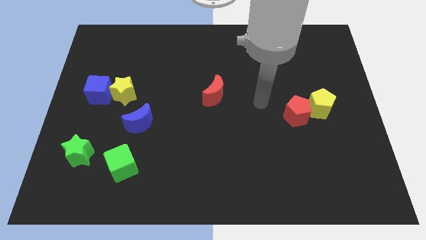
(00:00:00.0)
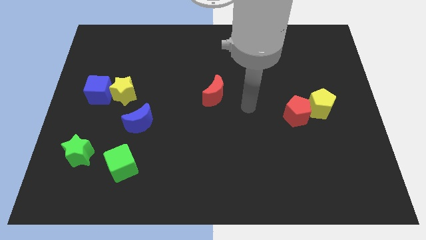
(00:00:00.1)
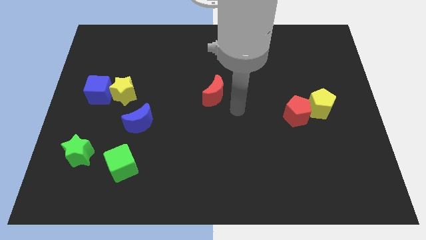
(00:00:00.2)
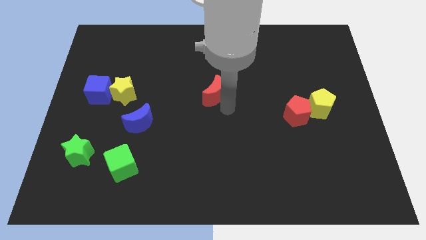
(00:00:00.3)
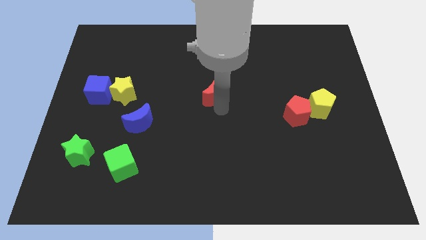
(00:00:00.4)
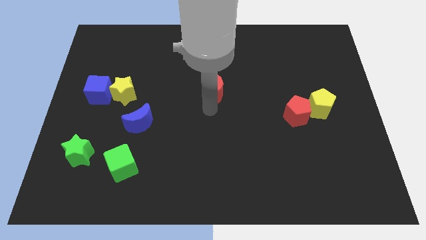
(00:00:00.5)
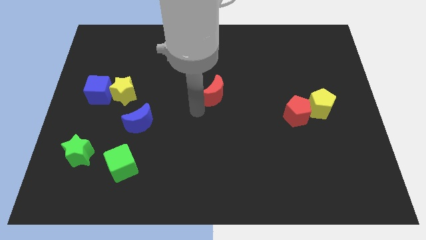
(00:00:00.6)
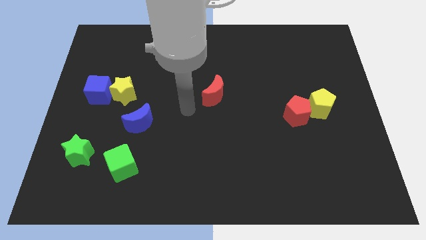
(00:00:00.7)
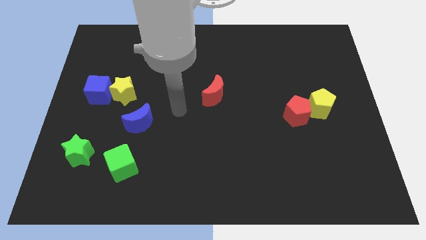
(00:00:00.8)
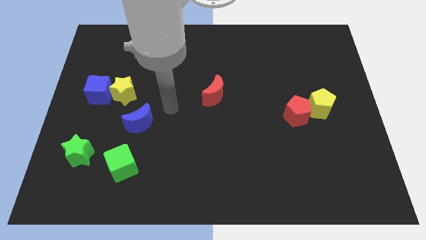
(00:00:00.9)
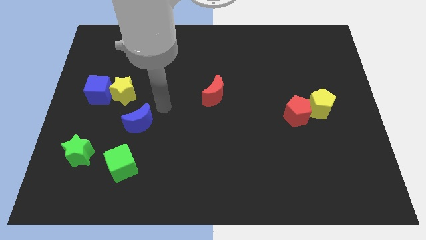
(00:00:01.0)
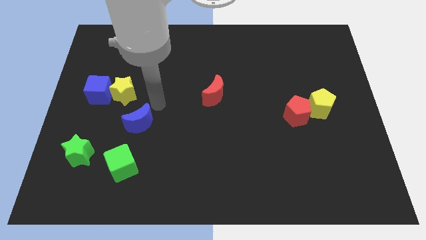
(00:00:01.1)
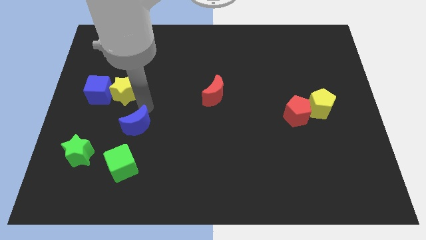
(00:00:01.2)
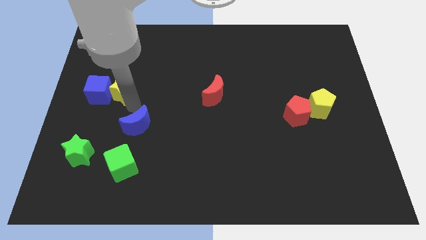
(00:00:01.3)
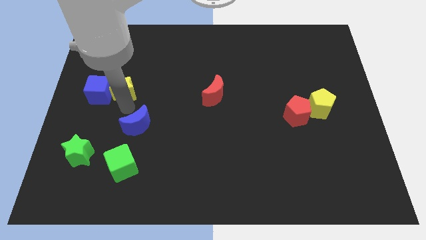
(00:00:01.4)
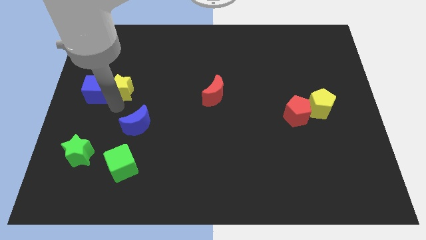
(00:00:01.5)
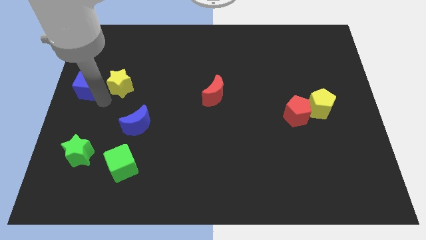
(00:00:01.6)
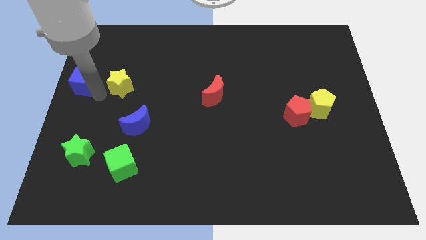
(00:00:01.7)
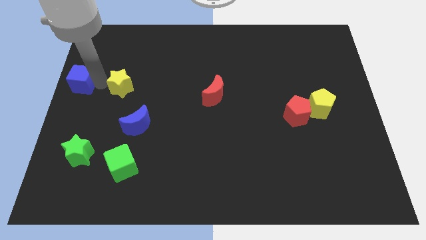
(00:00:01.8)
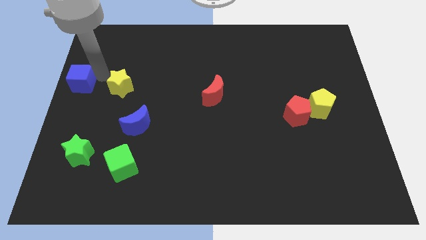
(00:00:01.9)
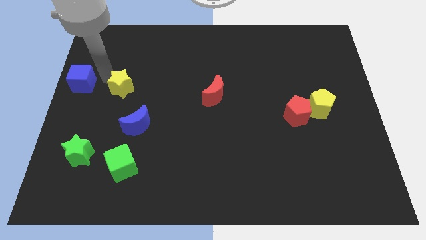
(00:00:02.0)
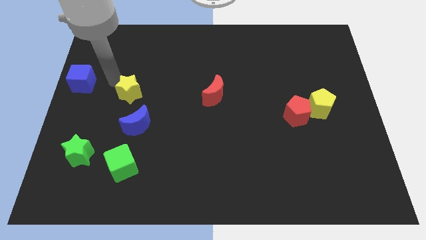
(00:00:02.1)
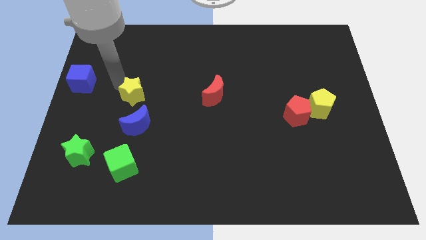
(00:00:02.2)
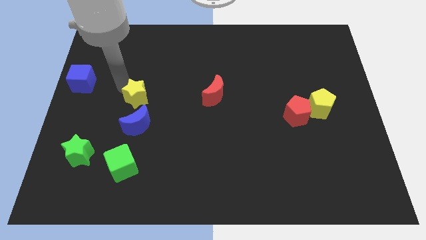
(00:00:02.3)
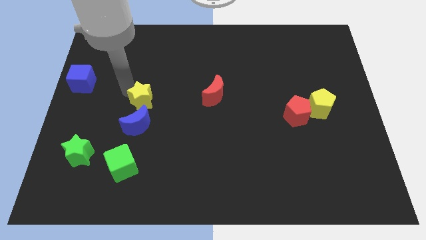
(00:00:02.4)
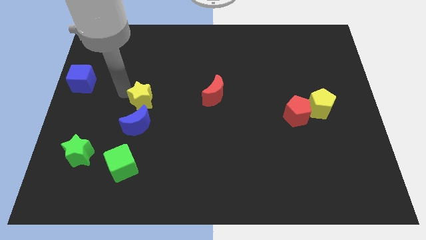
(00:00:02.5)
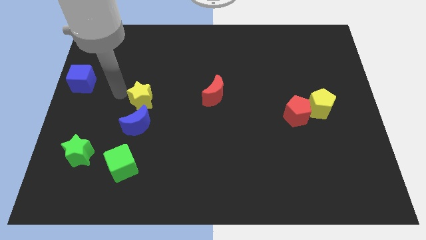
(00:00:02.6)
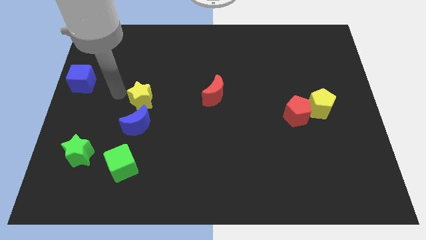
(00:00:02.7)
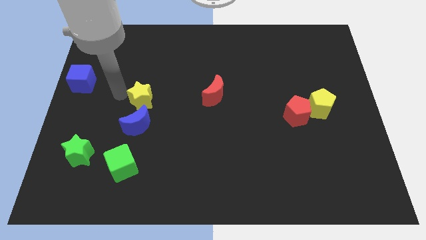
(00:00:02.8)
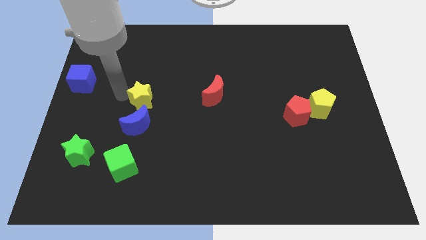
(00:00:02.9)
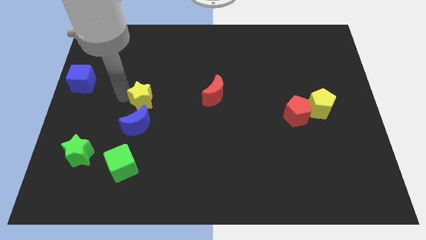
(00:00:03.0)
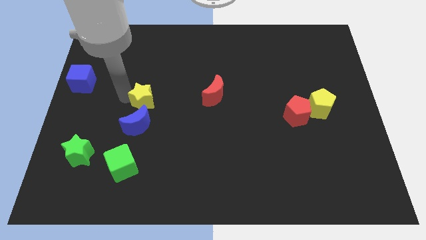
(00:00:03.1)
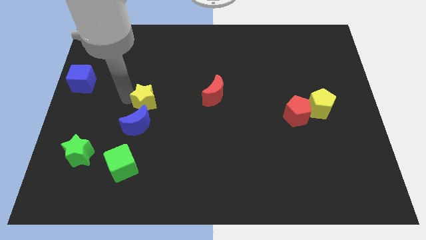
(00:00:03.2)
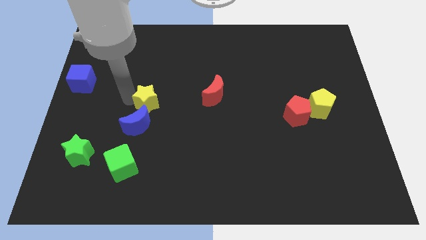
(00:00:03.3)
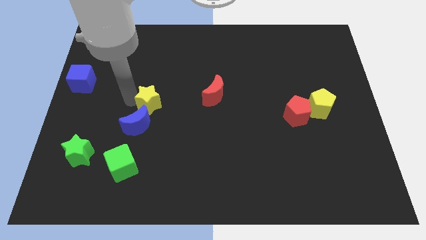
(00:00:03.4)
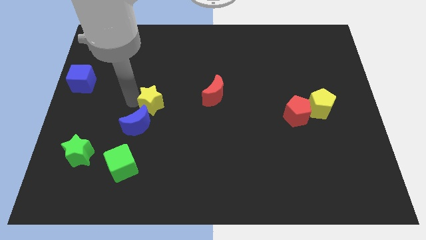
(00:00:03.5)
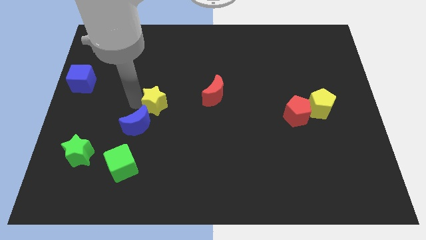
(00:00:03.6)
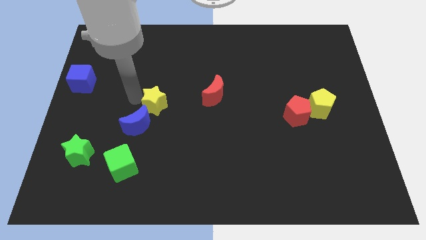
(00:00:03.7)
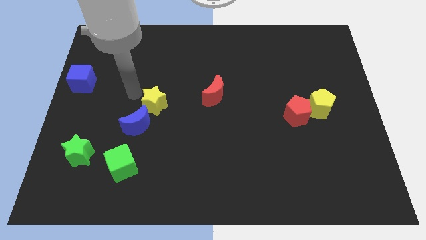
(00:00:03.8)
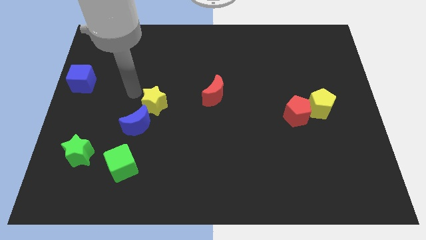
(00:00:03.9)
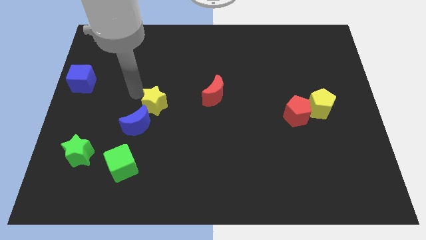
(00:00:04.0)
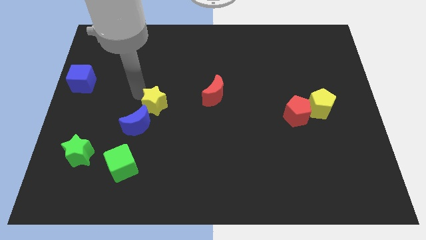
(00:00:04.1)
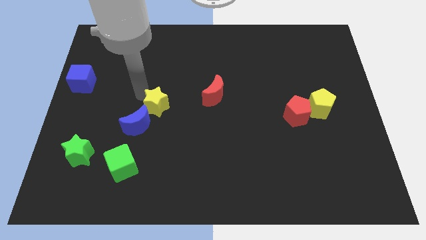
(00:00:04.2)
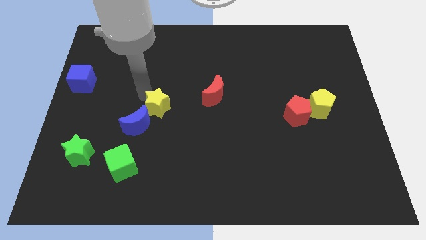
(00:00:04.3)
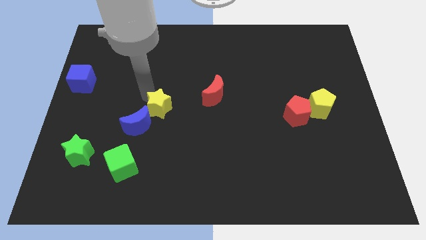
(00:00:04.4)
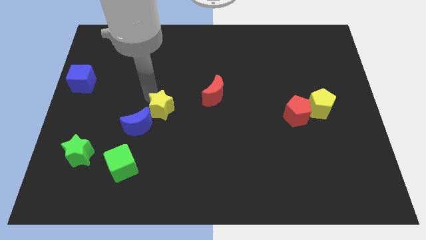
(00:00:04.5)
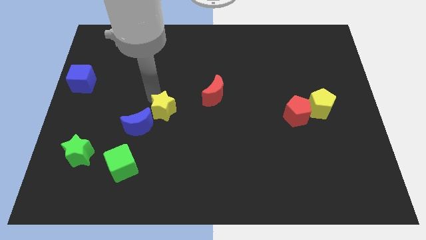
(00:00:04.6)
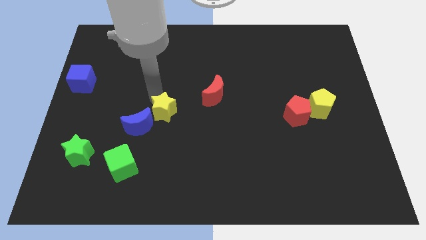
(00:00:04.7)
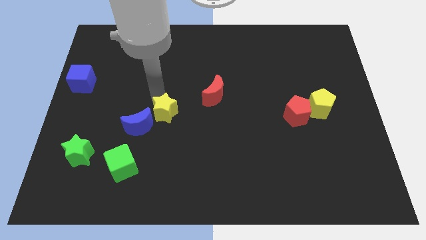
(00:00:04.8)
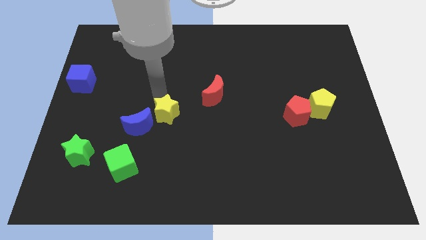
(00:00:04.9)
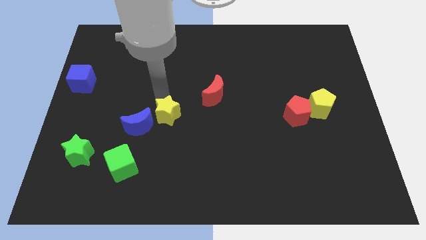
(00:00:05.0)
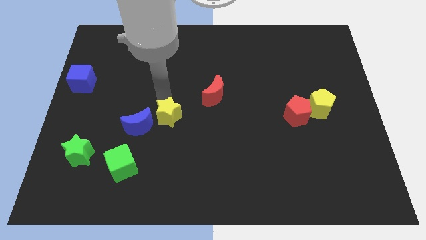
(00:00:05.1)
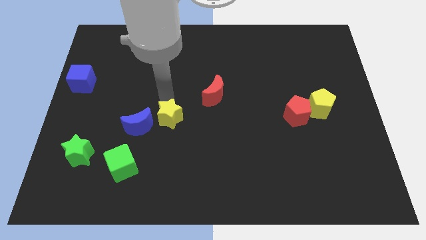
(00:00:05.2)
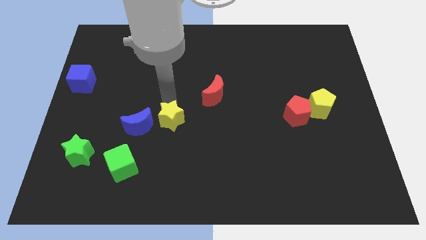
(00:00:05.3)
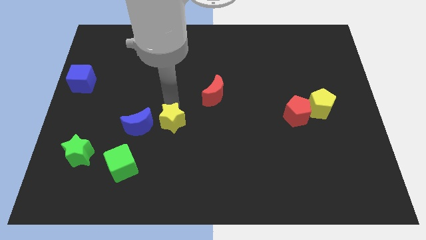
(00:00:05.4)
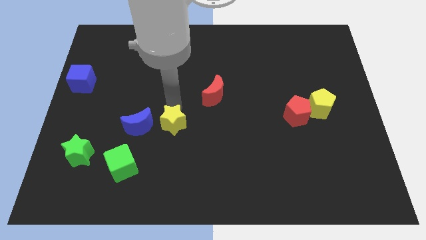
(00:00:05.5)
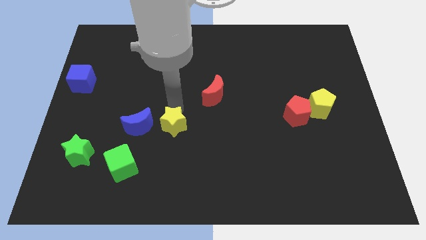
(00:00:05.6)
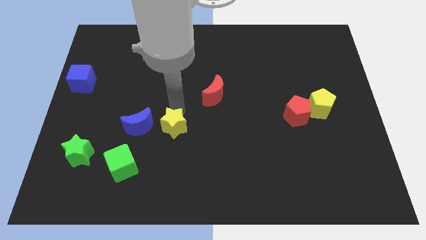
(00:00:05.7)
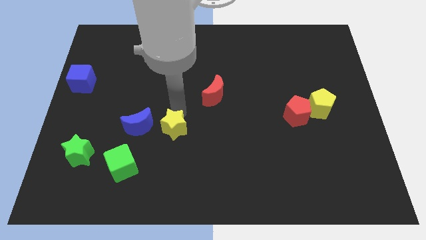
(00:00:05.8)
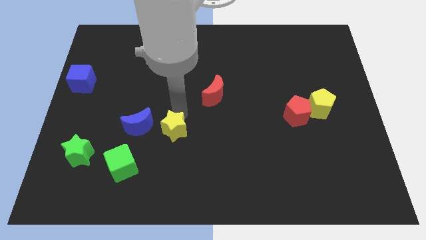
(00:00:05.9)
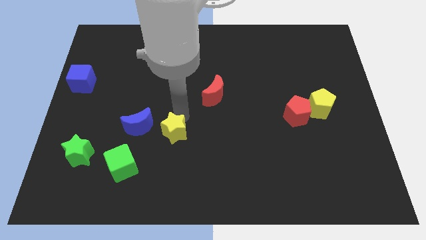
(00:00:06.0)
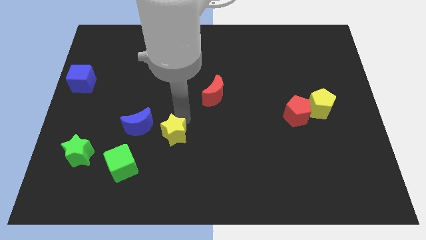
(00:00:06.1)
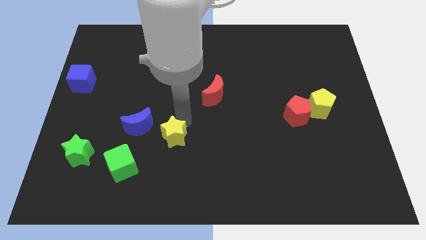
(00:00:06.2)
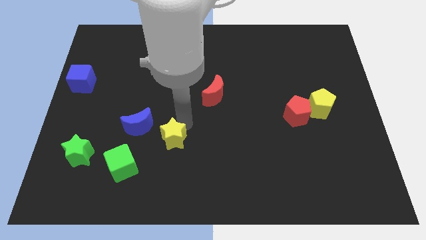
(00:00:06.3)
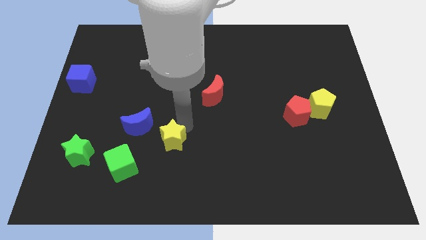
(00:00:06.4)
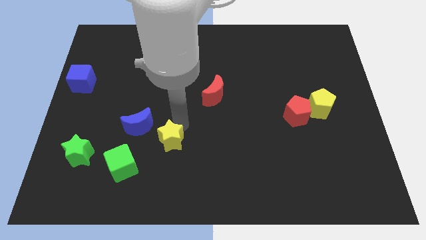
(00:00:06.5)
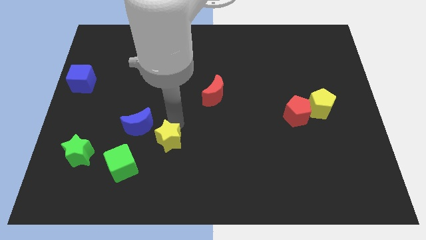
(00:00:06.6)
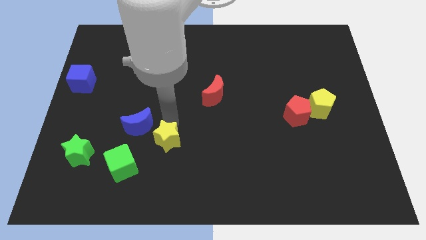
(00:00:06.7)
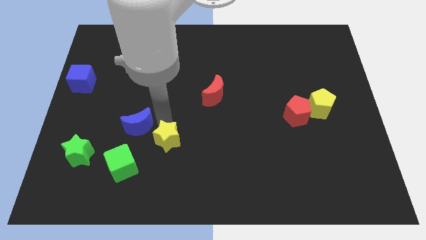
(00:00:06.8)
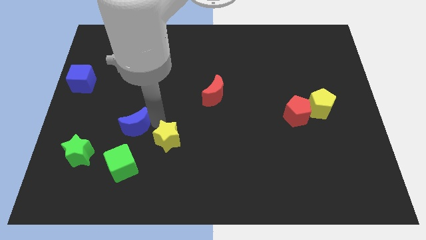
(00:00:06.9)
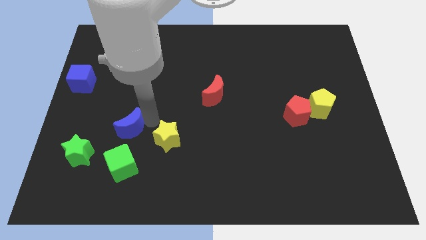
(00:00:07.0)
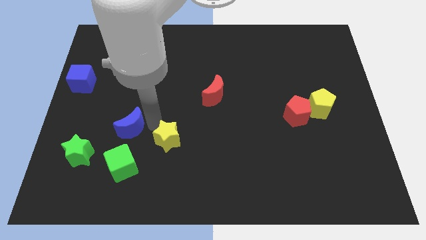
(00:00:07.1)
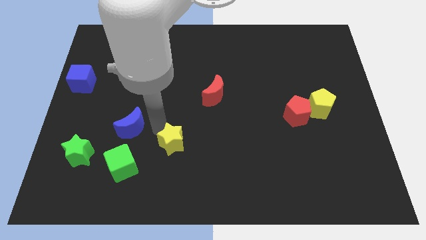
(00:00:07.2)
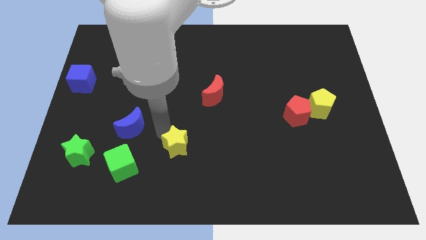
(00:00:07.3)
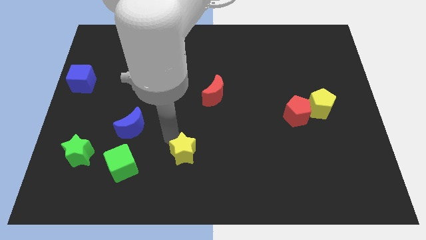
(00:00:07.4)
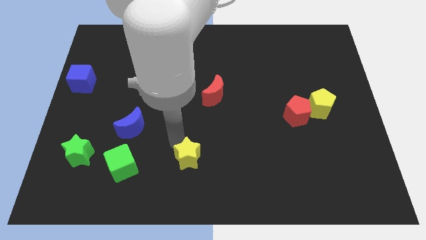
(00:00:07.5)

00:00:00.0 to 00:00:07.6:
move the yellow star to the bottom side
